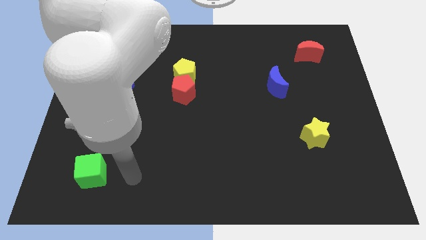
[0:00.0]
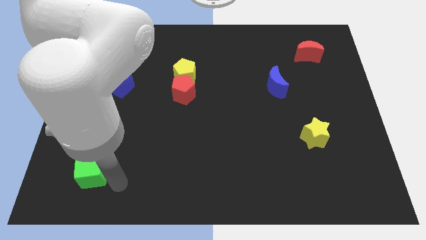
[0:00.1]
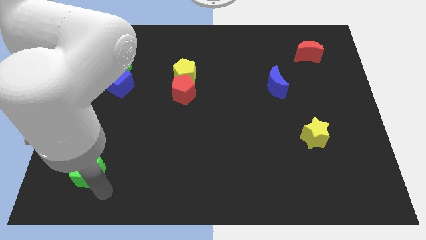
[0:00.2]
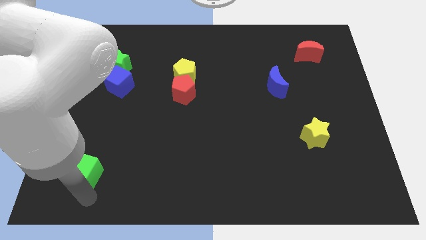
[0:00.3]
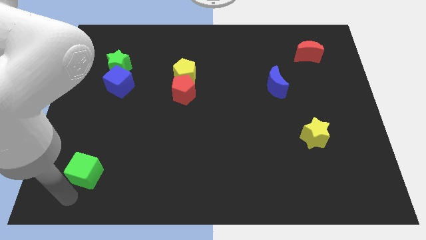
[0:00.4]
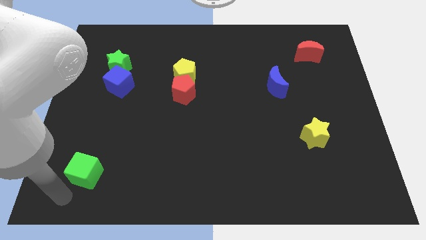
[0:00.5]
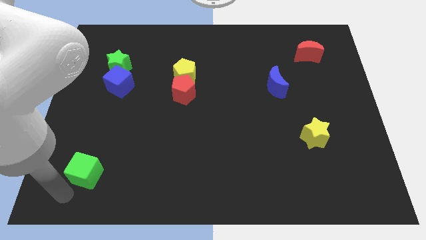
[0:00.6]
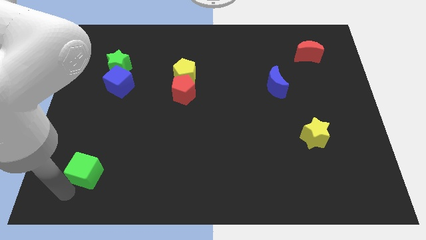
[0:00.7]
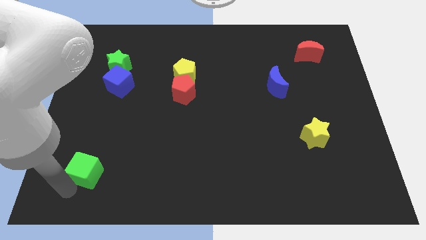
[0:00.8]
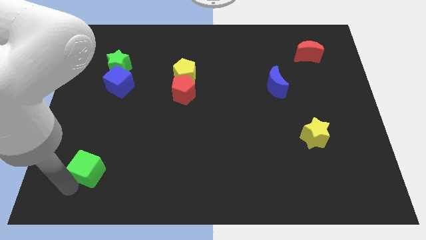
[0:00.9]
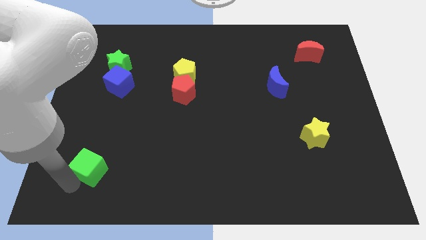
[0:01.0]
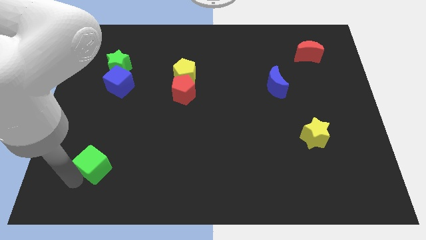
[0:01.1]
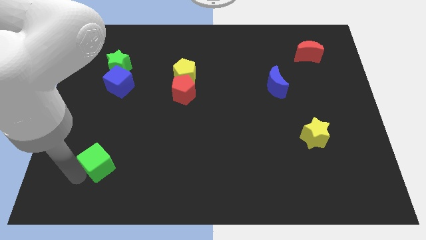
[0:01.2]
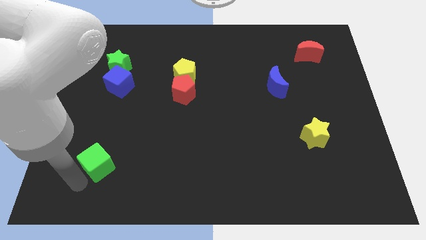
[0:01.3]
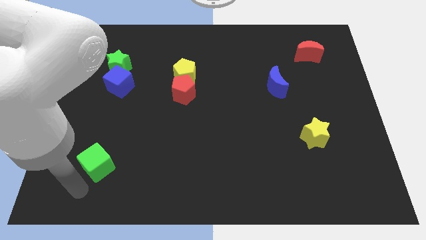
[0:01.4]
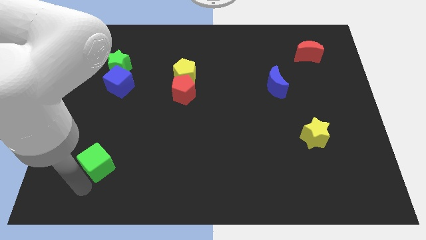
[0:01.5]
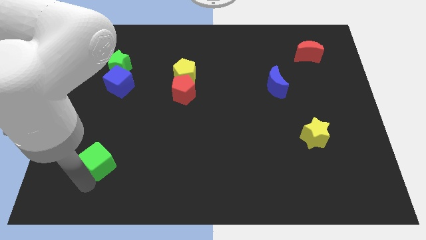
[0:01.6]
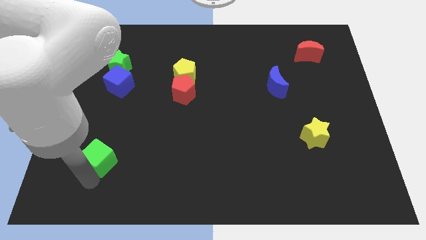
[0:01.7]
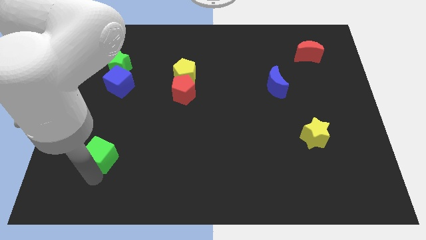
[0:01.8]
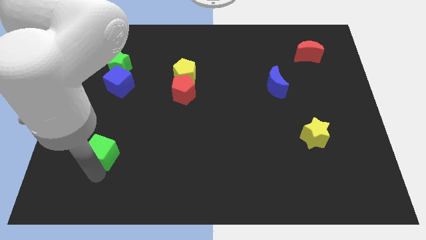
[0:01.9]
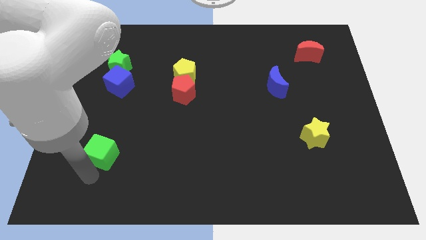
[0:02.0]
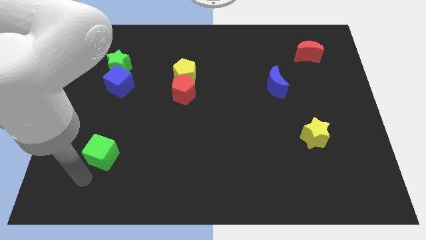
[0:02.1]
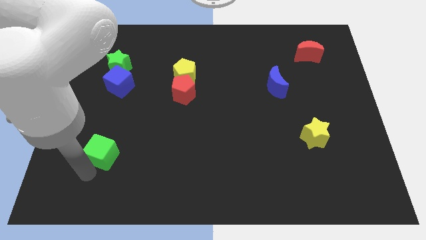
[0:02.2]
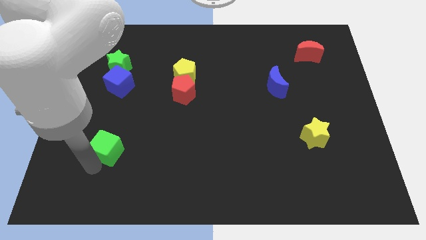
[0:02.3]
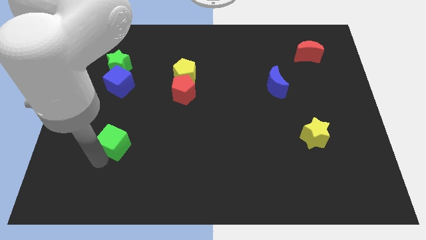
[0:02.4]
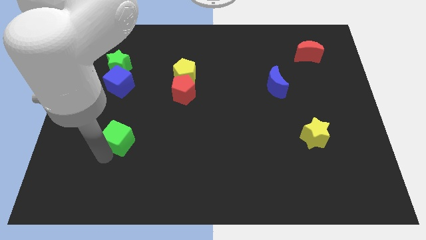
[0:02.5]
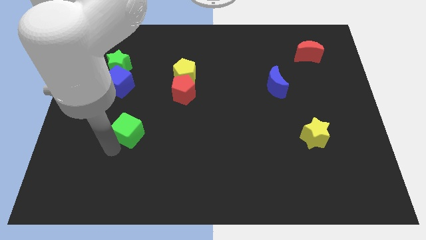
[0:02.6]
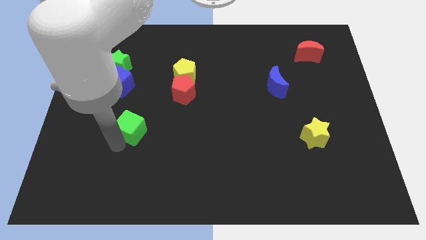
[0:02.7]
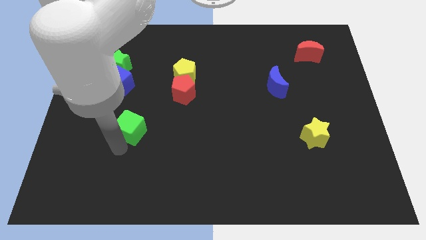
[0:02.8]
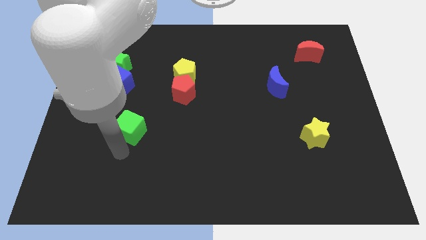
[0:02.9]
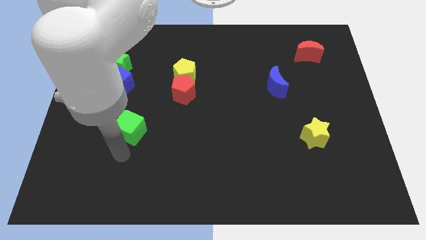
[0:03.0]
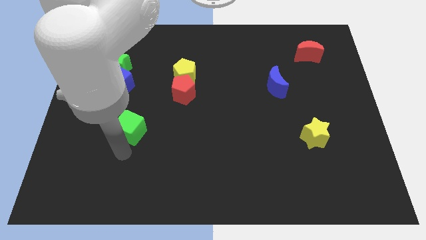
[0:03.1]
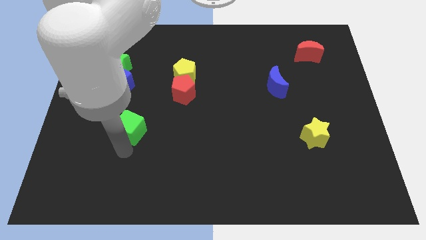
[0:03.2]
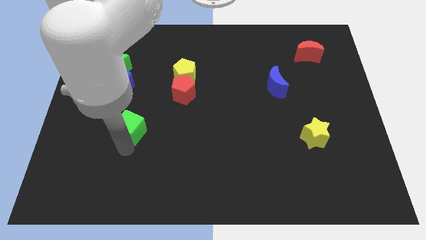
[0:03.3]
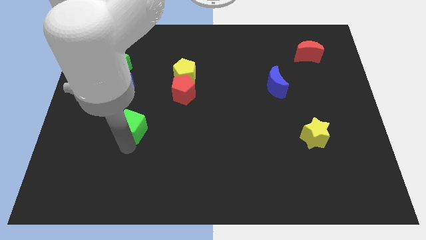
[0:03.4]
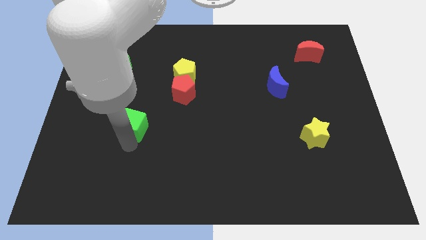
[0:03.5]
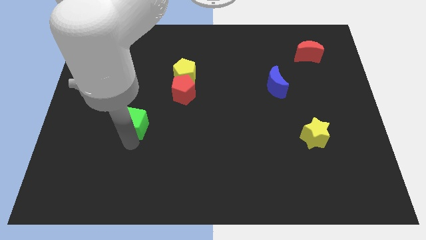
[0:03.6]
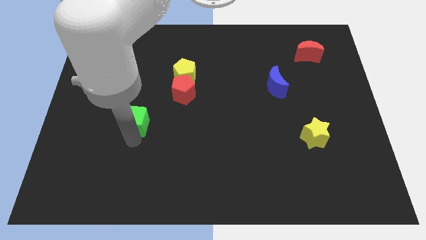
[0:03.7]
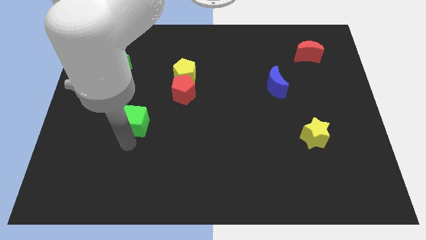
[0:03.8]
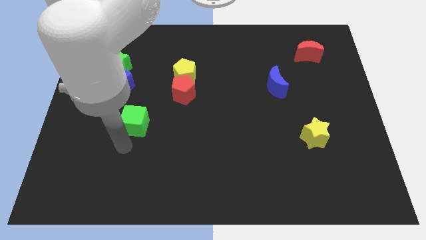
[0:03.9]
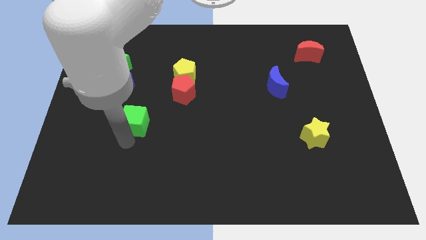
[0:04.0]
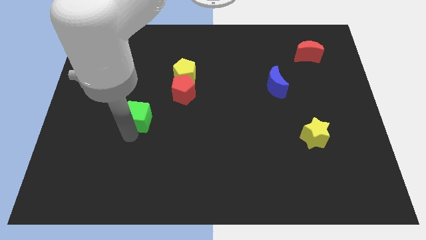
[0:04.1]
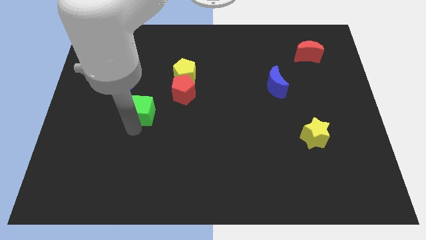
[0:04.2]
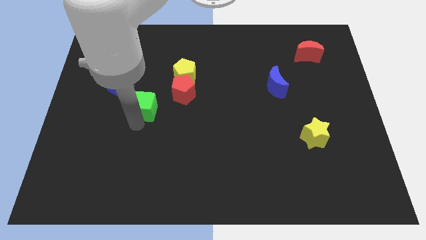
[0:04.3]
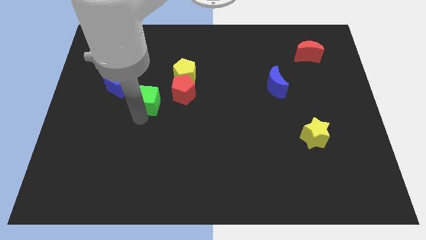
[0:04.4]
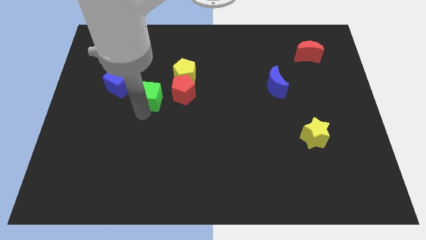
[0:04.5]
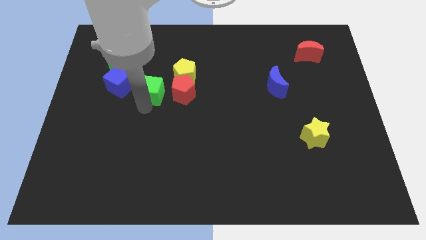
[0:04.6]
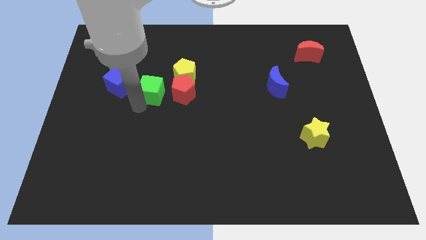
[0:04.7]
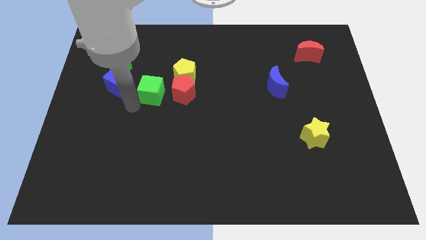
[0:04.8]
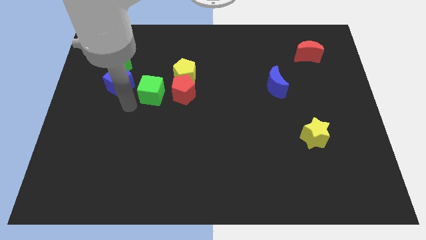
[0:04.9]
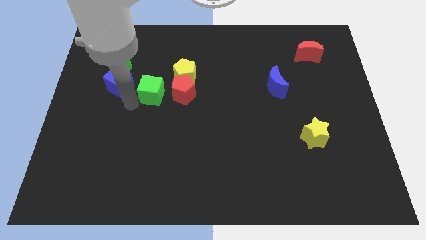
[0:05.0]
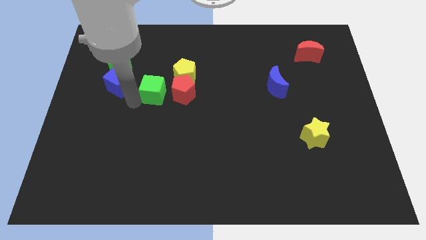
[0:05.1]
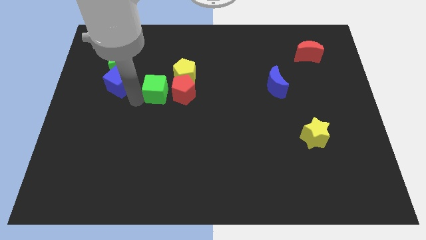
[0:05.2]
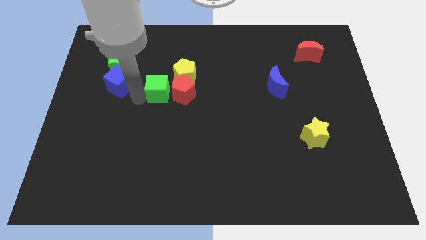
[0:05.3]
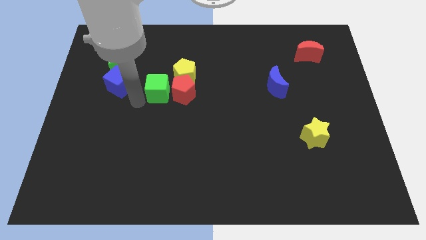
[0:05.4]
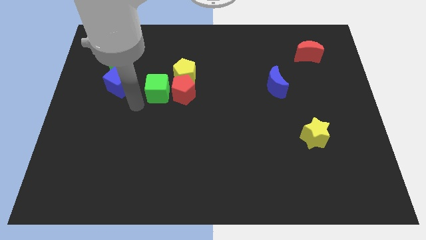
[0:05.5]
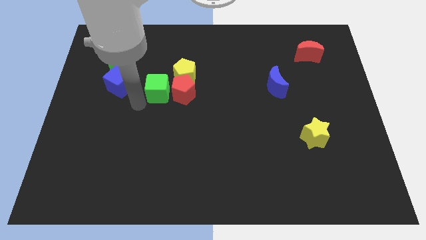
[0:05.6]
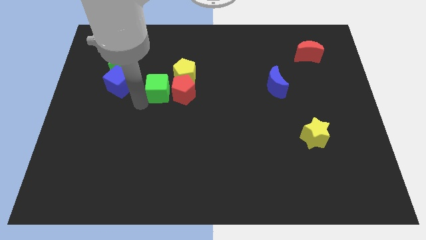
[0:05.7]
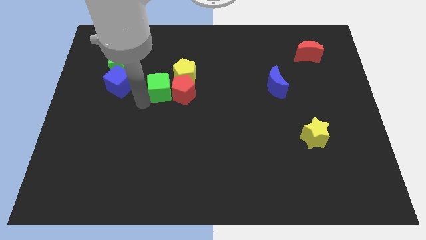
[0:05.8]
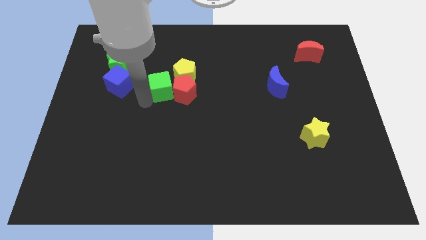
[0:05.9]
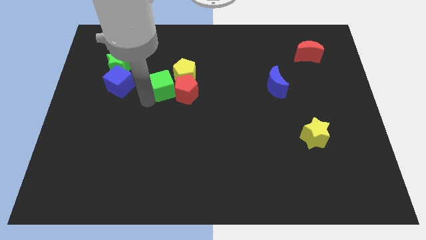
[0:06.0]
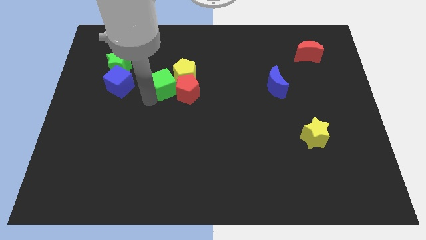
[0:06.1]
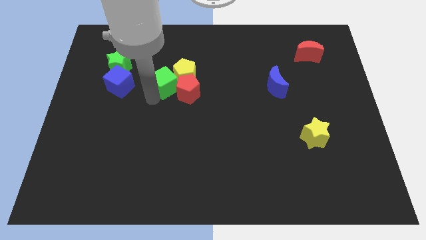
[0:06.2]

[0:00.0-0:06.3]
push the green cube to the yellow pentagon

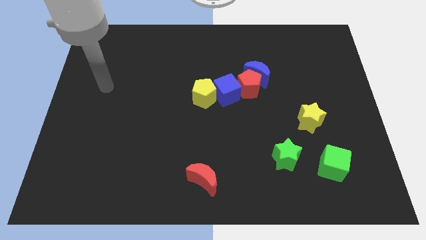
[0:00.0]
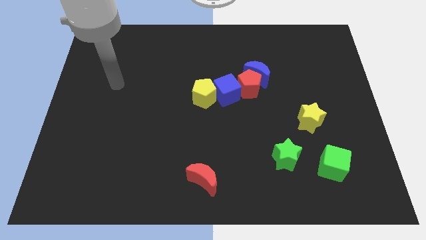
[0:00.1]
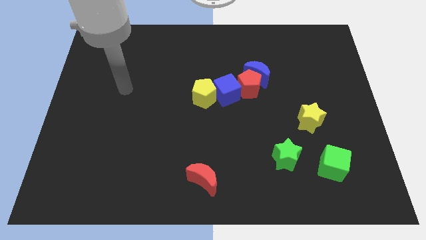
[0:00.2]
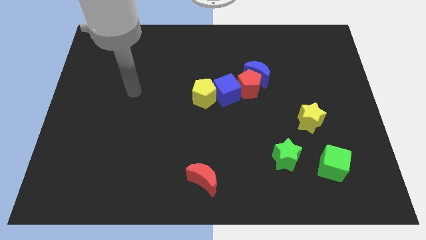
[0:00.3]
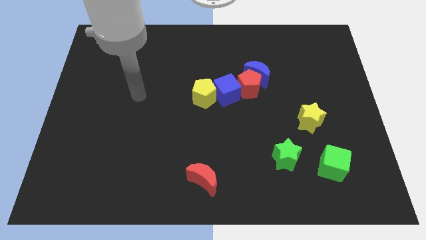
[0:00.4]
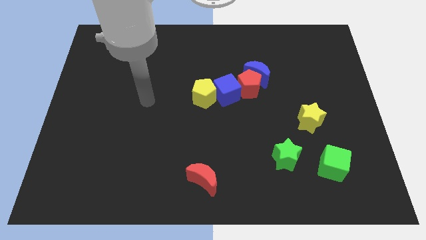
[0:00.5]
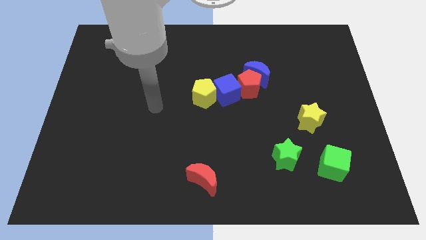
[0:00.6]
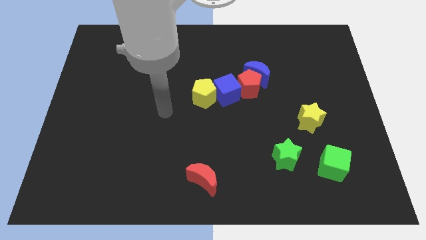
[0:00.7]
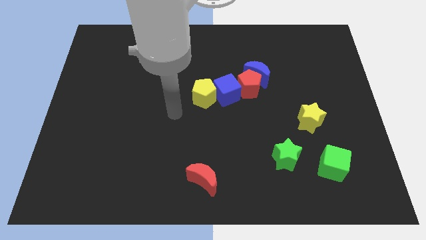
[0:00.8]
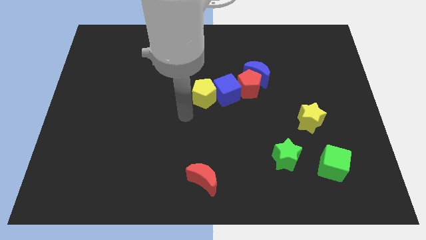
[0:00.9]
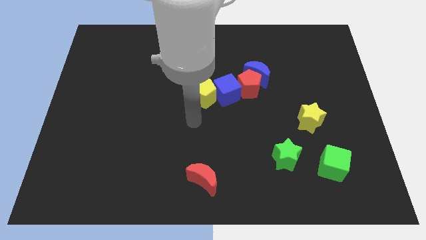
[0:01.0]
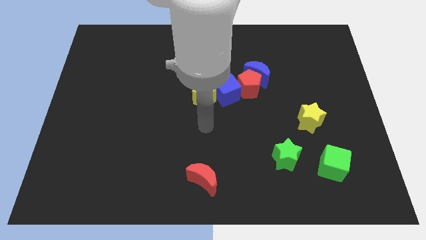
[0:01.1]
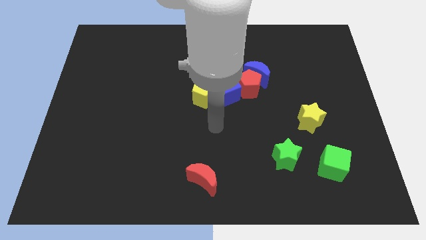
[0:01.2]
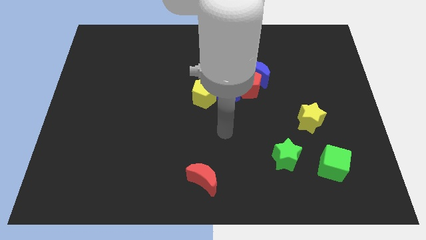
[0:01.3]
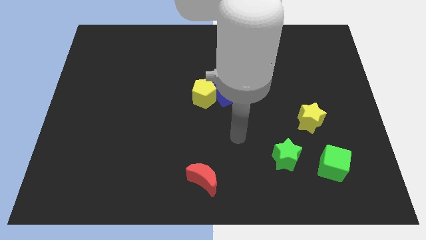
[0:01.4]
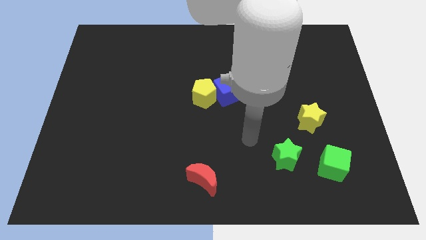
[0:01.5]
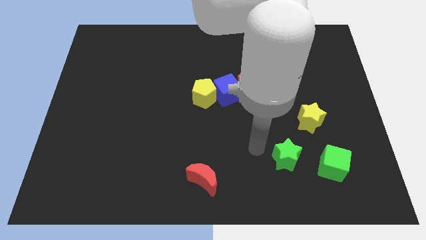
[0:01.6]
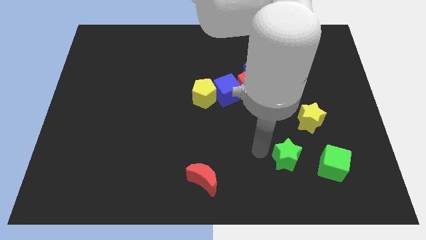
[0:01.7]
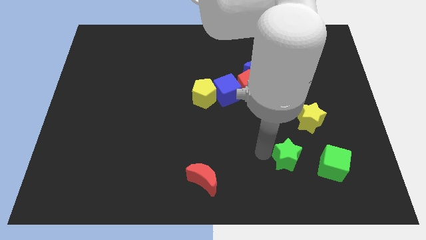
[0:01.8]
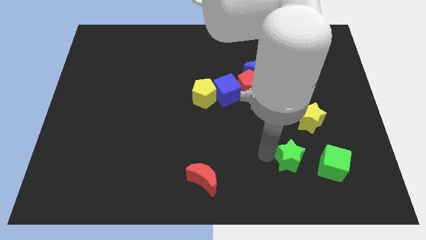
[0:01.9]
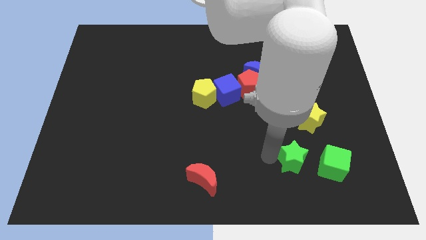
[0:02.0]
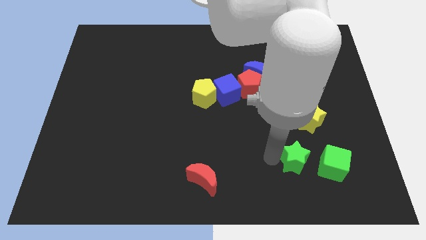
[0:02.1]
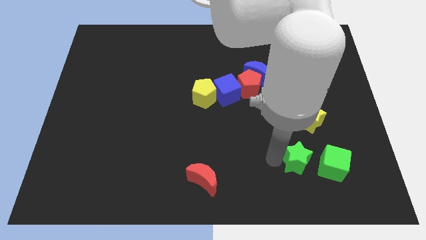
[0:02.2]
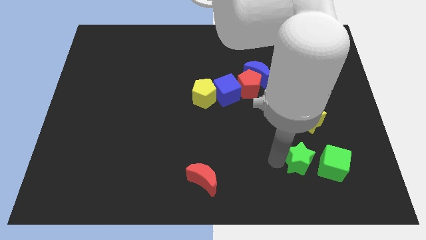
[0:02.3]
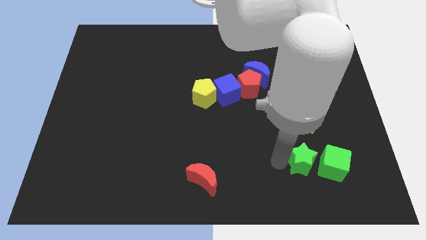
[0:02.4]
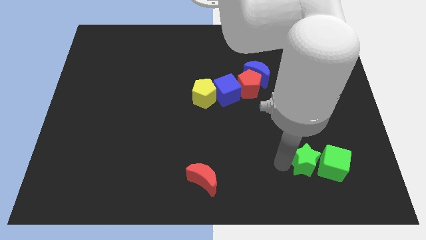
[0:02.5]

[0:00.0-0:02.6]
push the green star close to the green cube
